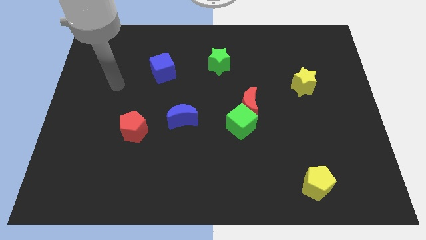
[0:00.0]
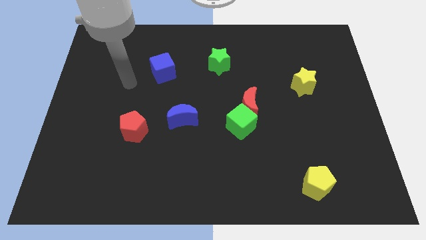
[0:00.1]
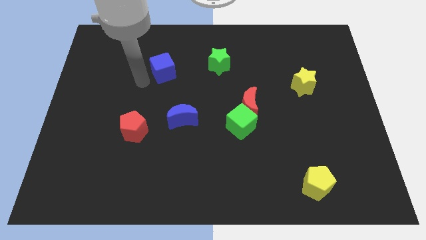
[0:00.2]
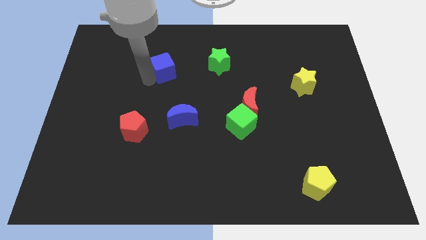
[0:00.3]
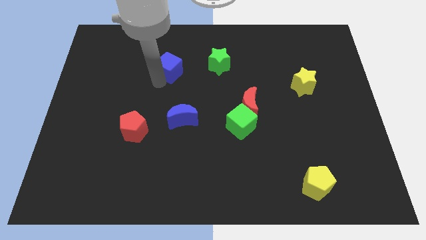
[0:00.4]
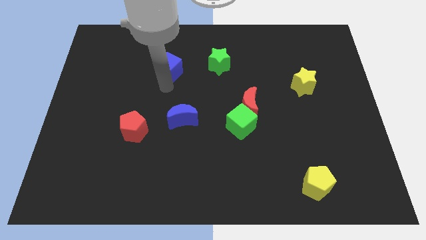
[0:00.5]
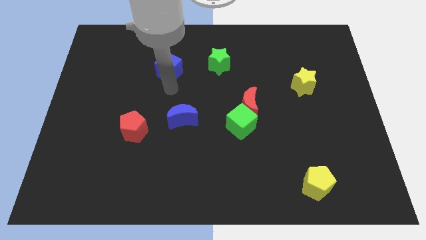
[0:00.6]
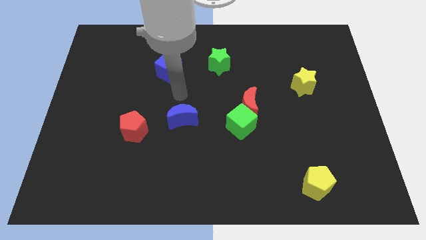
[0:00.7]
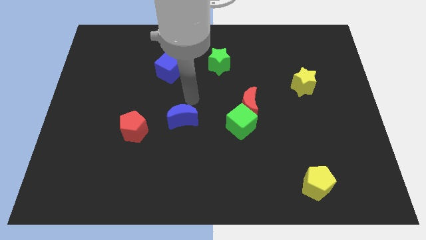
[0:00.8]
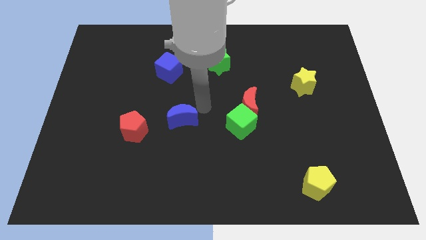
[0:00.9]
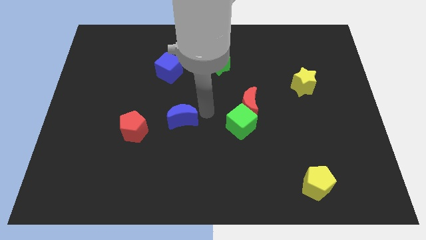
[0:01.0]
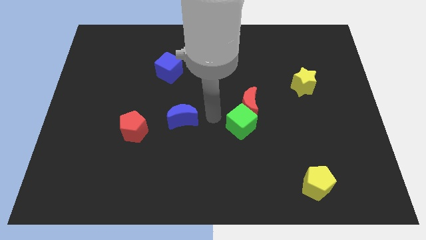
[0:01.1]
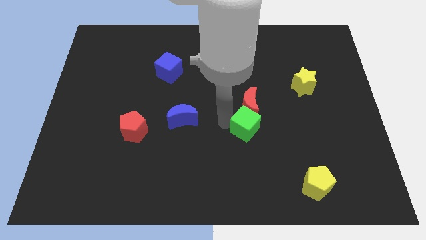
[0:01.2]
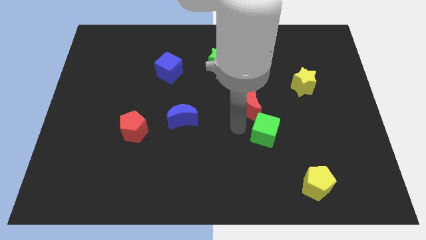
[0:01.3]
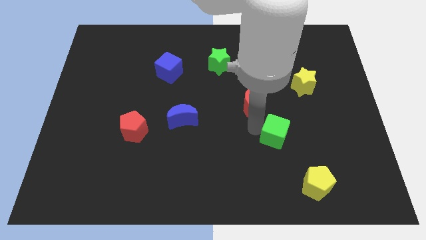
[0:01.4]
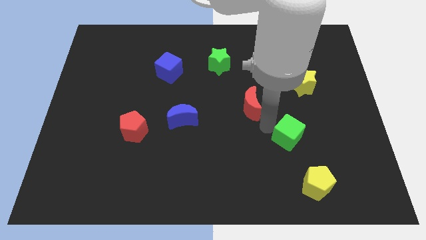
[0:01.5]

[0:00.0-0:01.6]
pull the red moon apart from the green cube

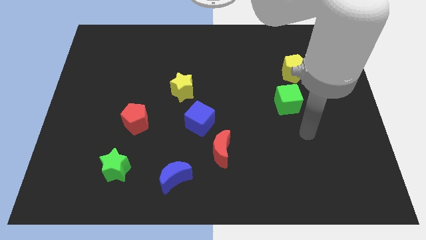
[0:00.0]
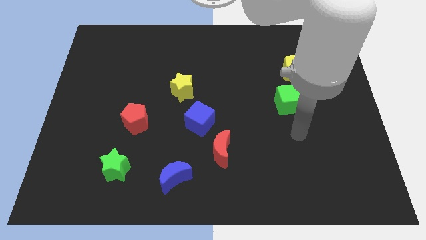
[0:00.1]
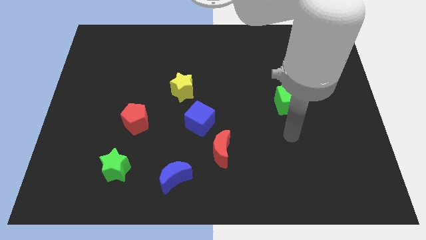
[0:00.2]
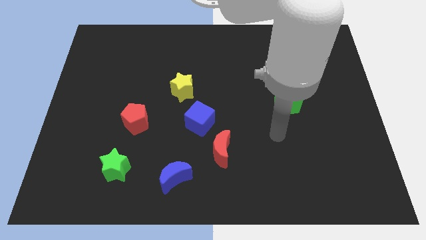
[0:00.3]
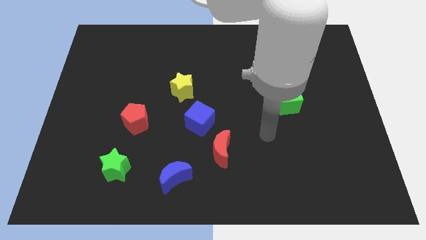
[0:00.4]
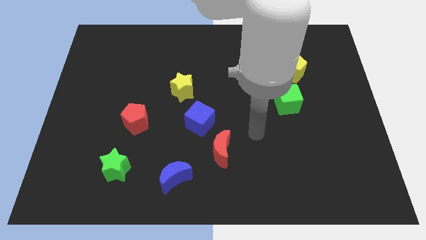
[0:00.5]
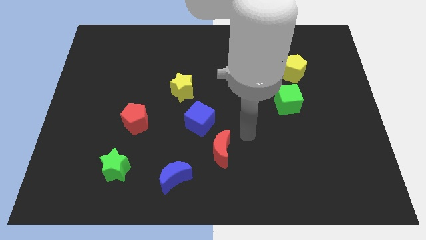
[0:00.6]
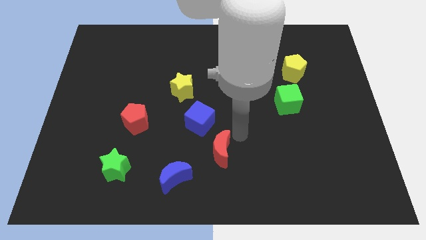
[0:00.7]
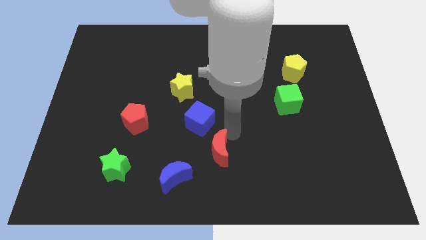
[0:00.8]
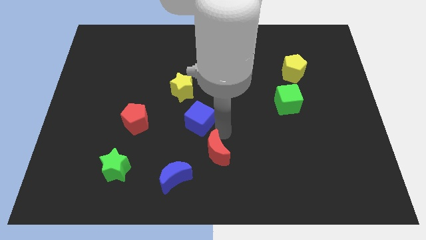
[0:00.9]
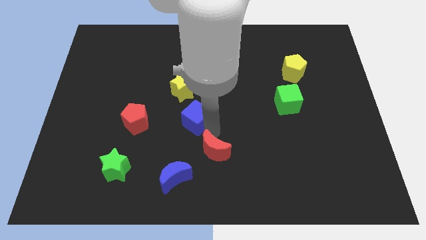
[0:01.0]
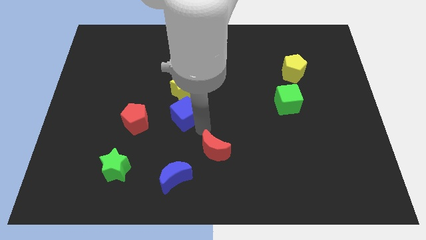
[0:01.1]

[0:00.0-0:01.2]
pull the red moon apart from the blue cube

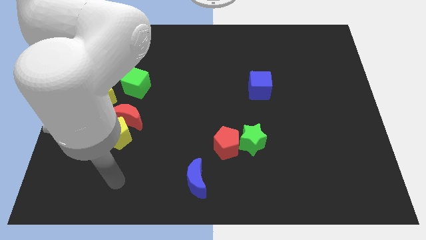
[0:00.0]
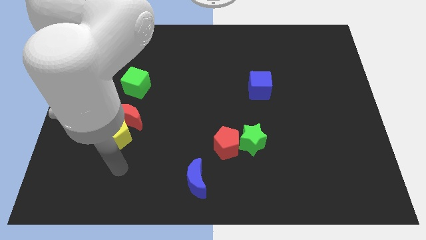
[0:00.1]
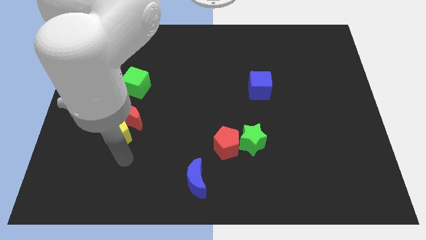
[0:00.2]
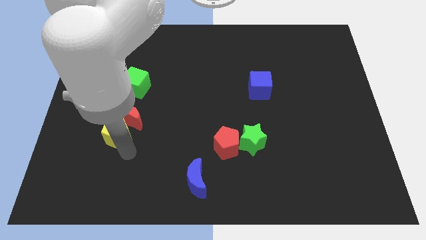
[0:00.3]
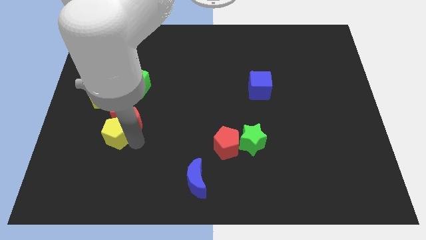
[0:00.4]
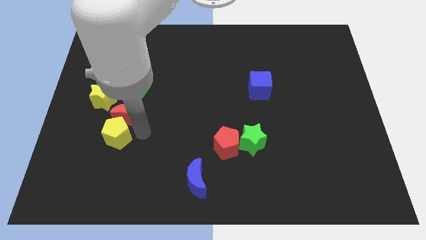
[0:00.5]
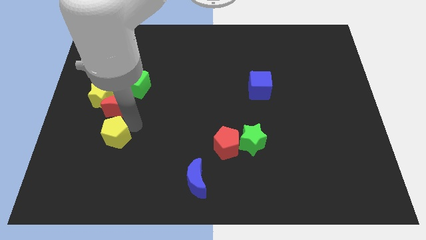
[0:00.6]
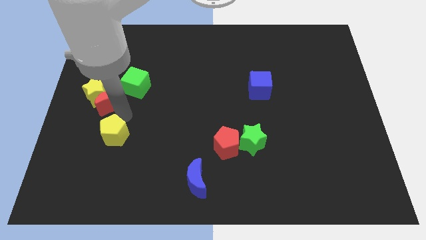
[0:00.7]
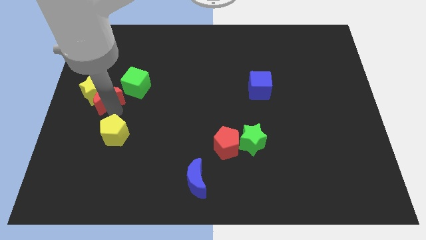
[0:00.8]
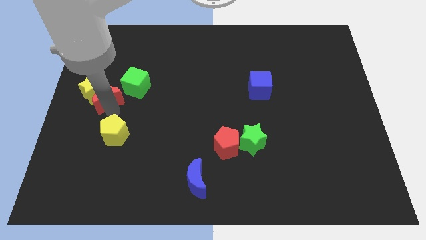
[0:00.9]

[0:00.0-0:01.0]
separate the yellow pentagon from the red moon

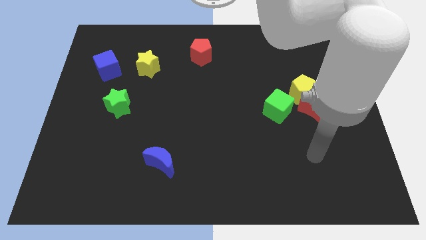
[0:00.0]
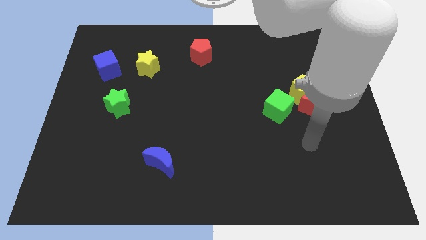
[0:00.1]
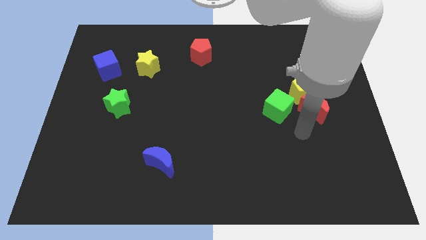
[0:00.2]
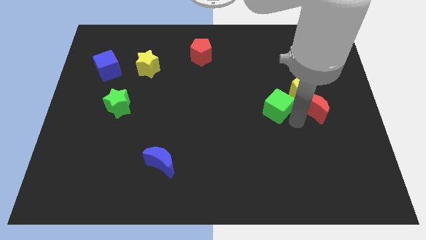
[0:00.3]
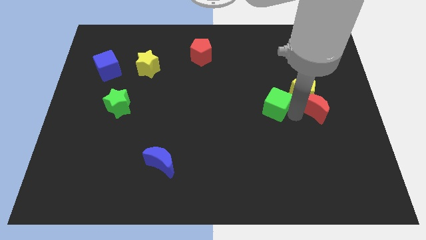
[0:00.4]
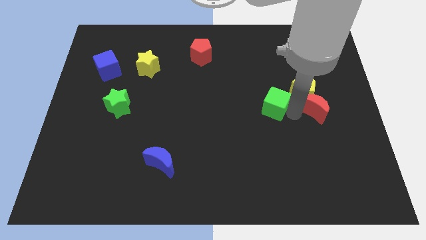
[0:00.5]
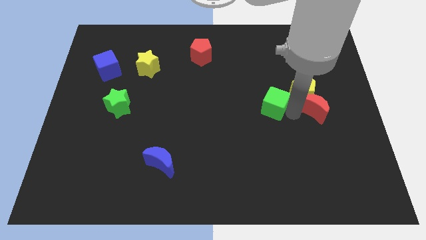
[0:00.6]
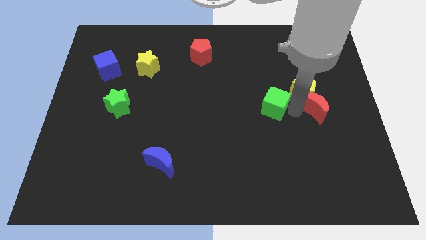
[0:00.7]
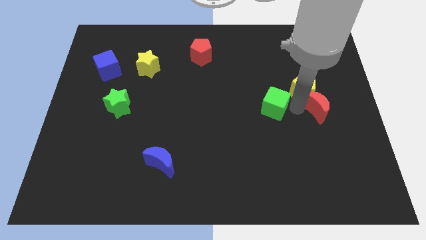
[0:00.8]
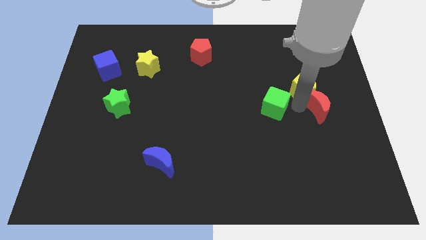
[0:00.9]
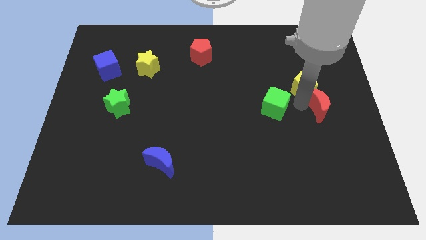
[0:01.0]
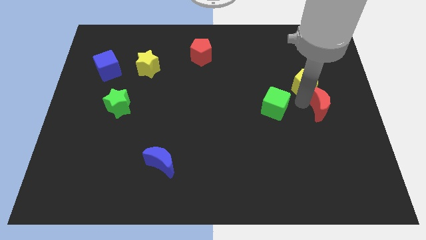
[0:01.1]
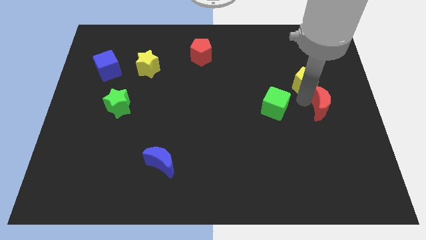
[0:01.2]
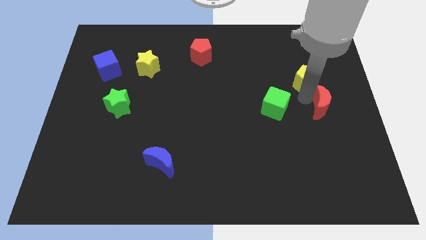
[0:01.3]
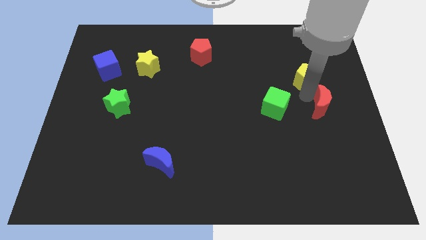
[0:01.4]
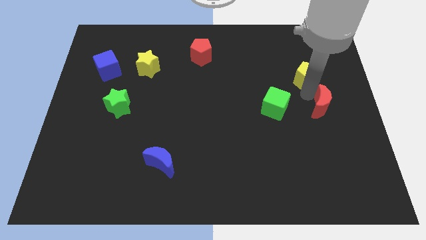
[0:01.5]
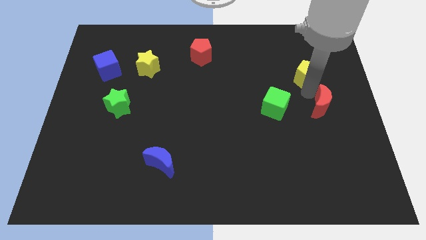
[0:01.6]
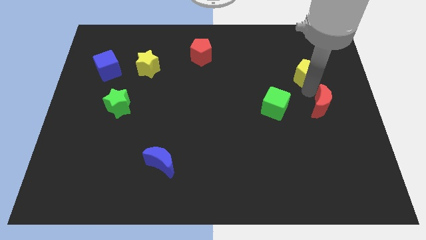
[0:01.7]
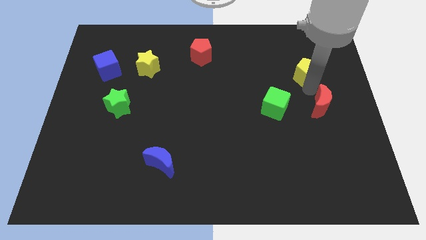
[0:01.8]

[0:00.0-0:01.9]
pull the yellow pentagon apart from the red moon and green cube

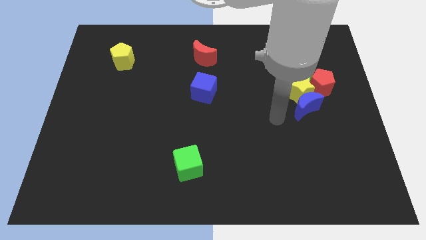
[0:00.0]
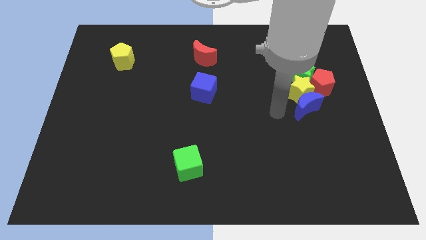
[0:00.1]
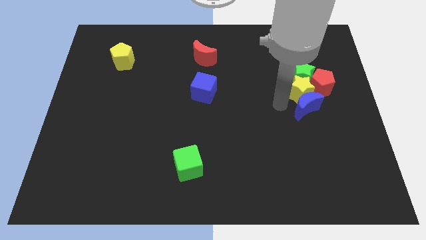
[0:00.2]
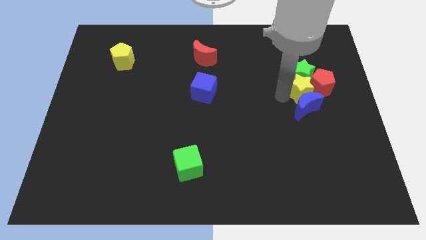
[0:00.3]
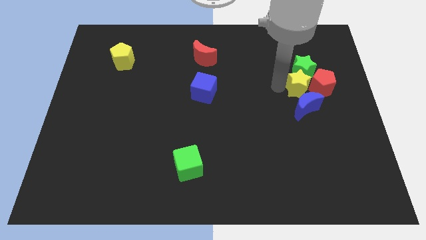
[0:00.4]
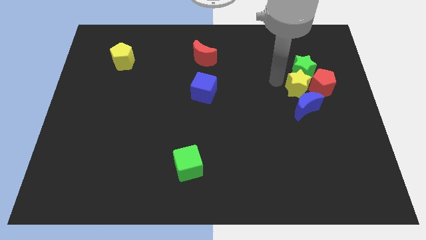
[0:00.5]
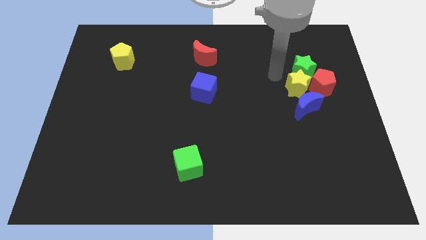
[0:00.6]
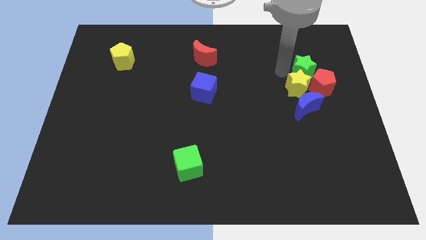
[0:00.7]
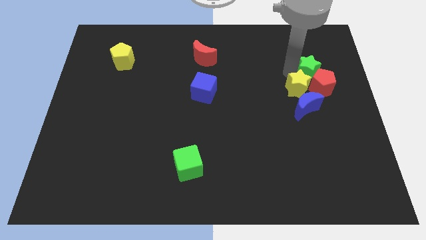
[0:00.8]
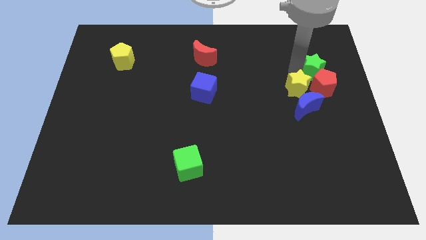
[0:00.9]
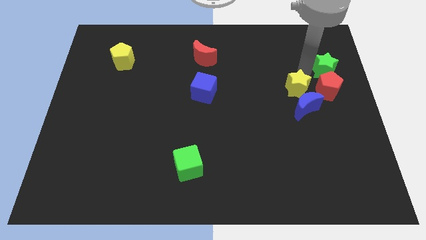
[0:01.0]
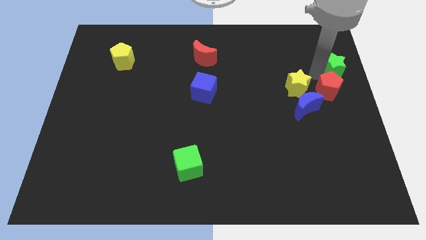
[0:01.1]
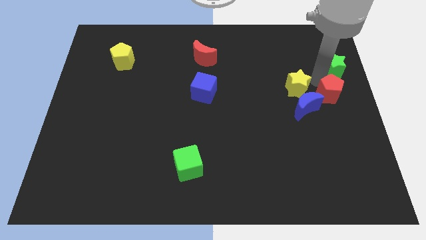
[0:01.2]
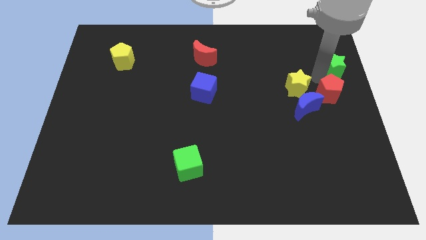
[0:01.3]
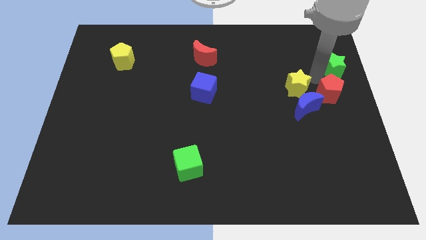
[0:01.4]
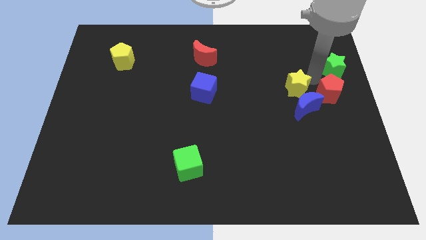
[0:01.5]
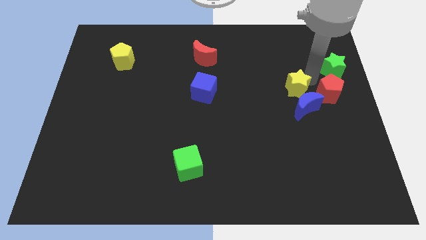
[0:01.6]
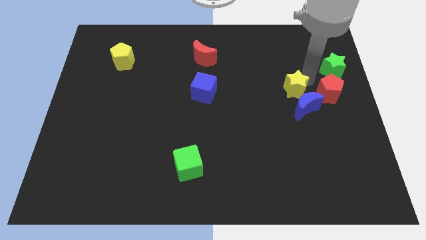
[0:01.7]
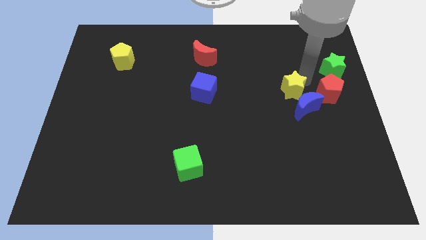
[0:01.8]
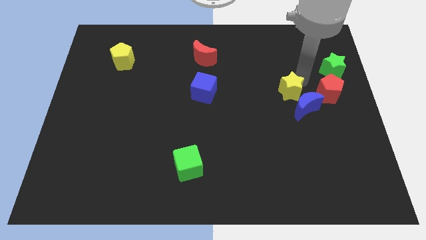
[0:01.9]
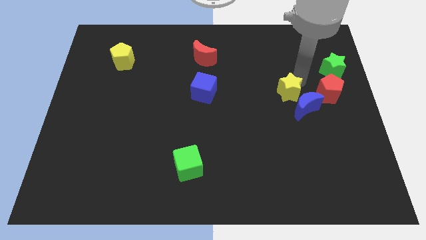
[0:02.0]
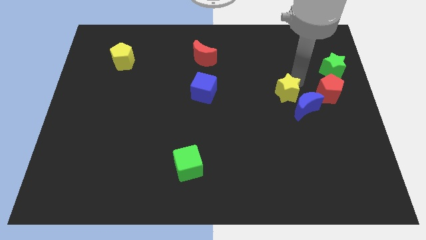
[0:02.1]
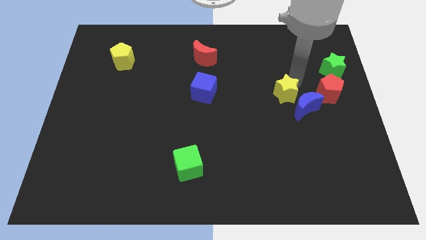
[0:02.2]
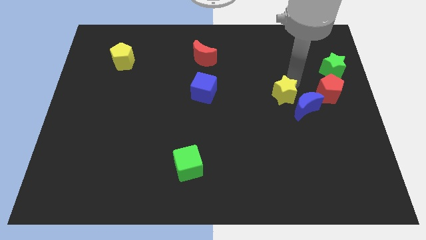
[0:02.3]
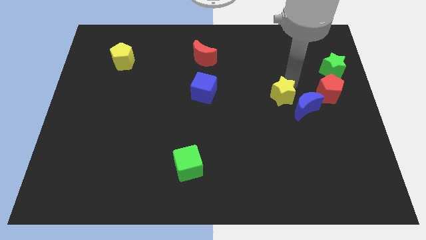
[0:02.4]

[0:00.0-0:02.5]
separate the yellow star from the blue moon, green star, and red pentagon

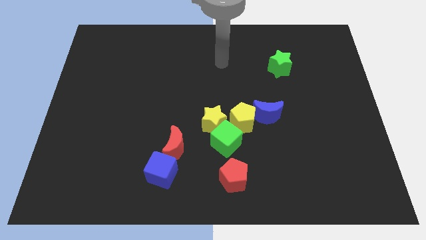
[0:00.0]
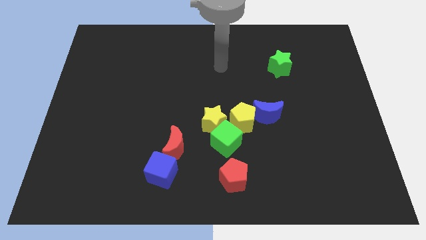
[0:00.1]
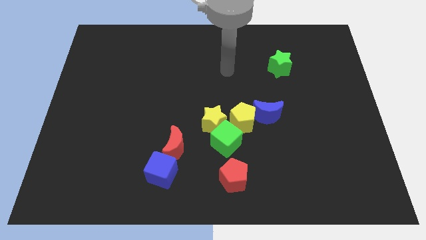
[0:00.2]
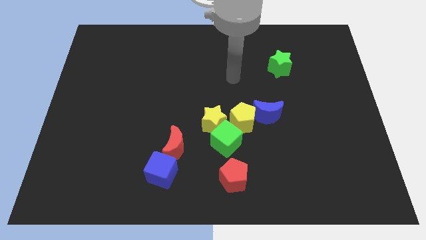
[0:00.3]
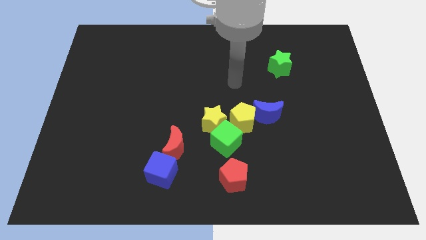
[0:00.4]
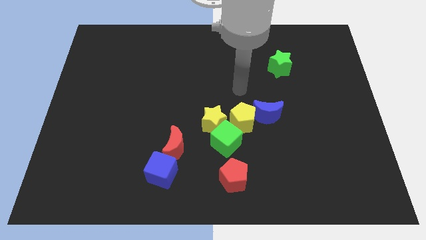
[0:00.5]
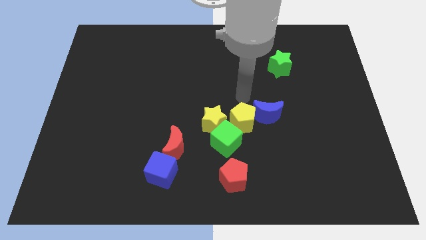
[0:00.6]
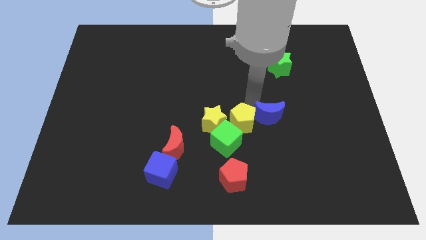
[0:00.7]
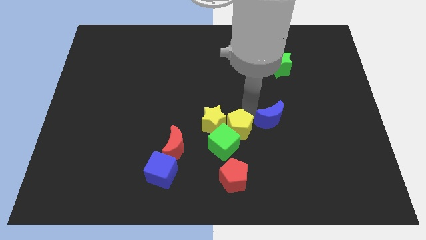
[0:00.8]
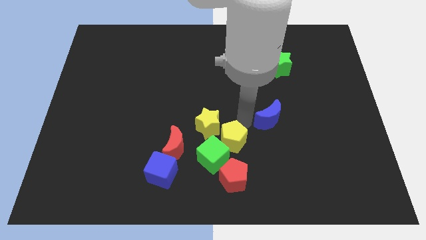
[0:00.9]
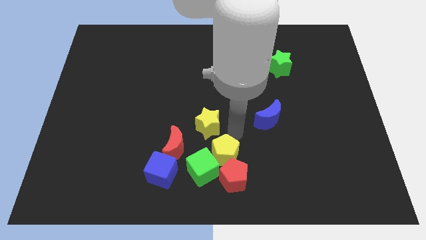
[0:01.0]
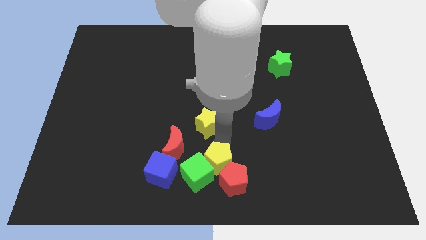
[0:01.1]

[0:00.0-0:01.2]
separate the yellow star from the green cube and yellow pentagon
